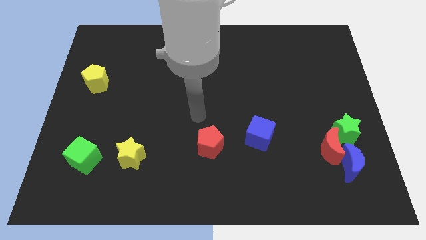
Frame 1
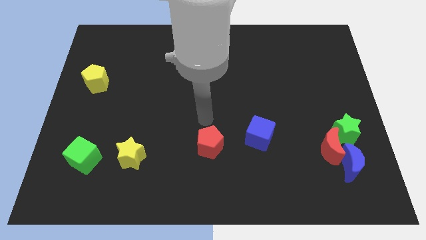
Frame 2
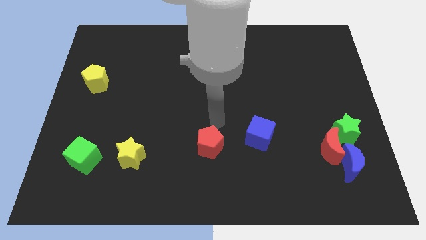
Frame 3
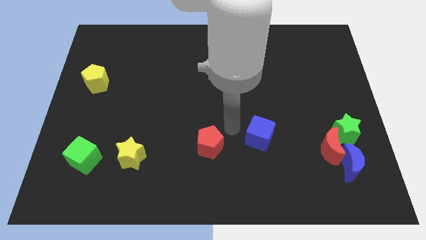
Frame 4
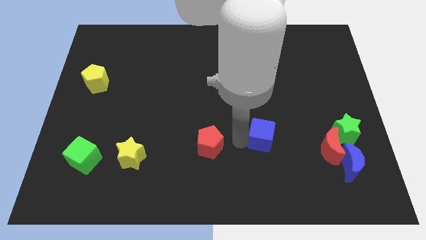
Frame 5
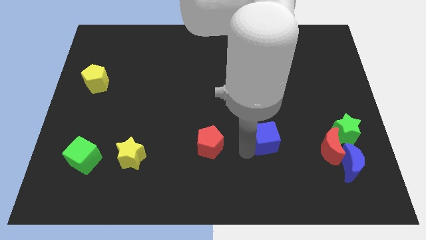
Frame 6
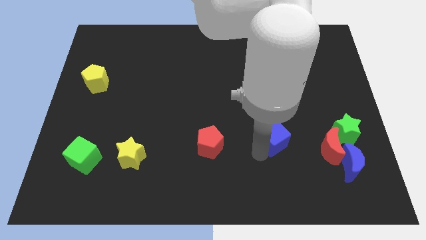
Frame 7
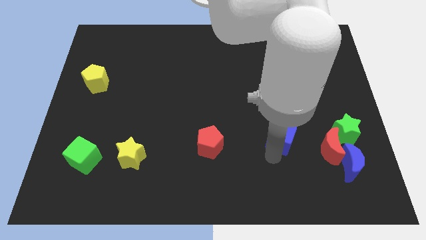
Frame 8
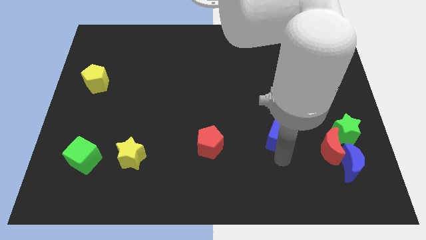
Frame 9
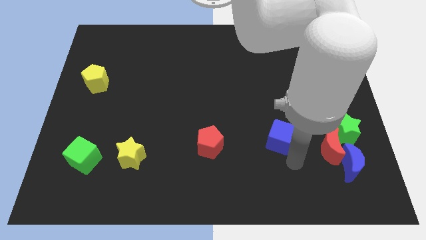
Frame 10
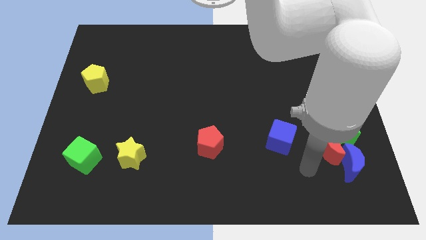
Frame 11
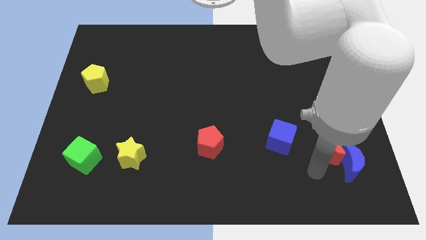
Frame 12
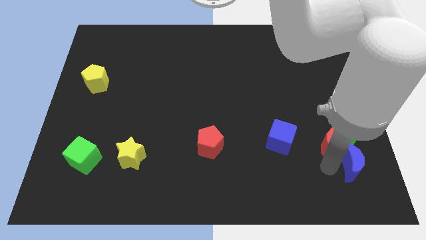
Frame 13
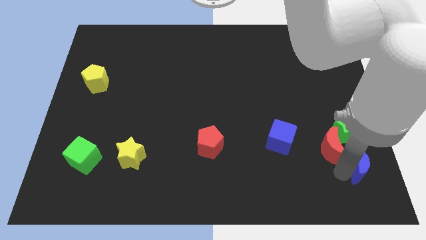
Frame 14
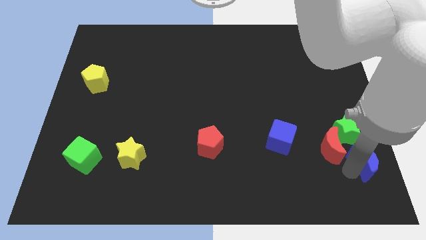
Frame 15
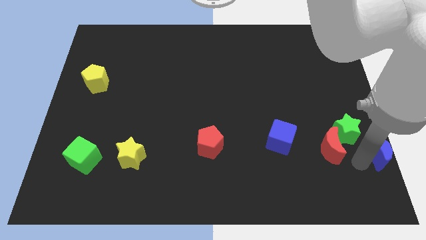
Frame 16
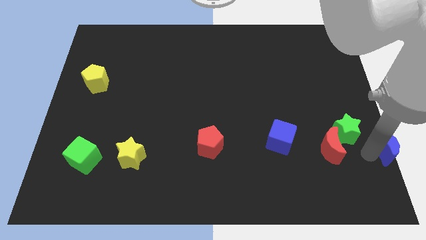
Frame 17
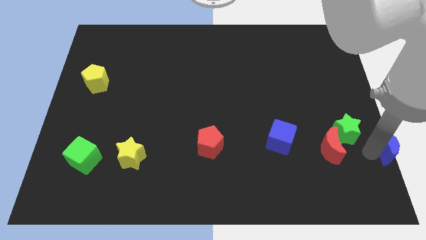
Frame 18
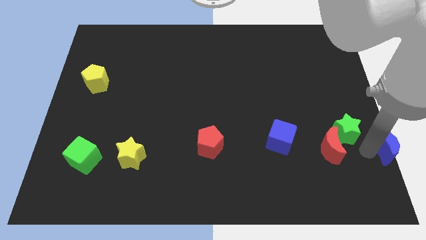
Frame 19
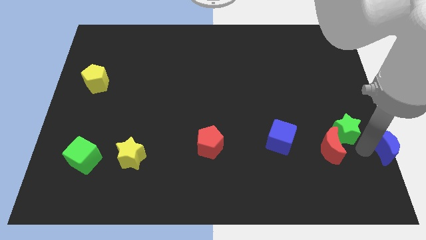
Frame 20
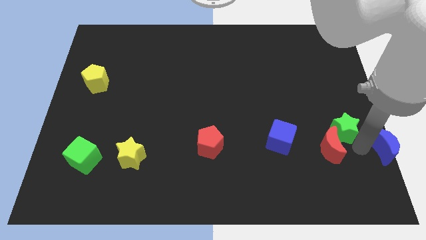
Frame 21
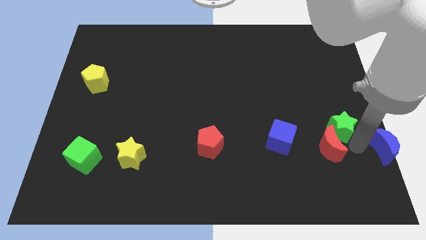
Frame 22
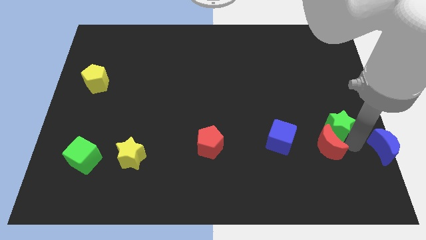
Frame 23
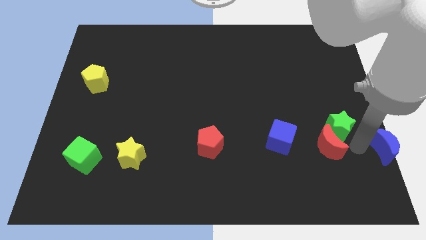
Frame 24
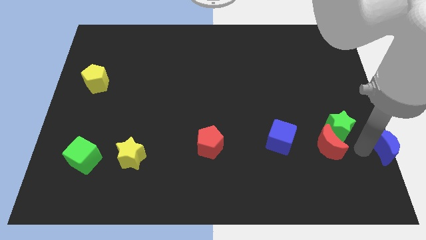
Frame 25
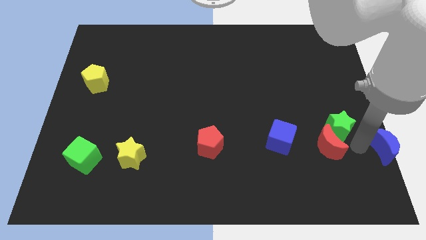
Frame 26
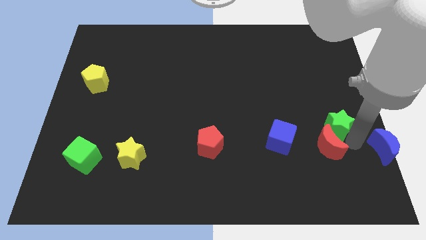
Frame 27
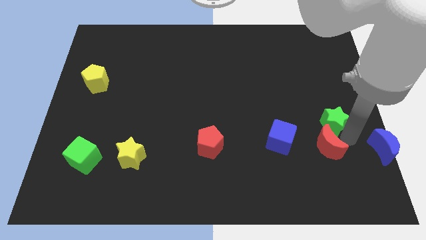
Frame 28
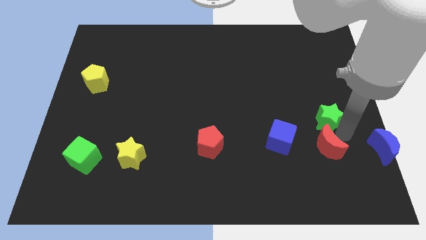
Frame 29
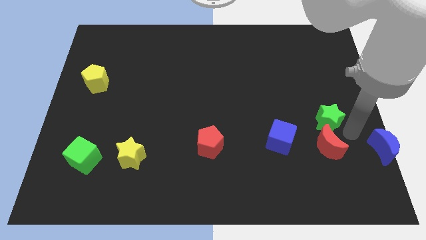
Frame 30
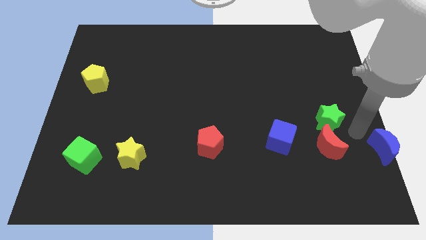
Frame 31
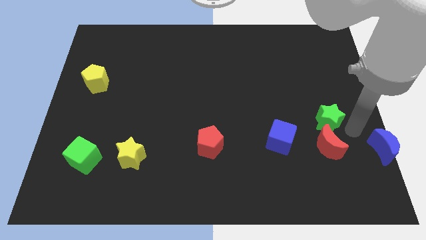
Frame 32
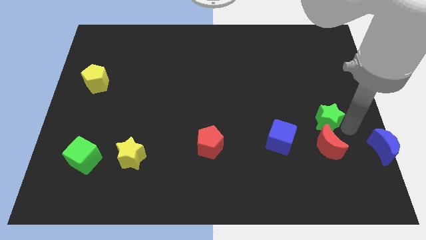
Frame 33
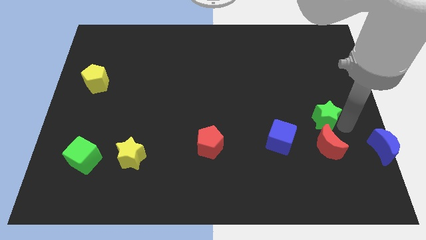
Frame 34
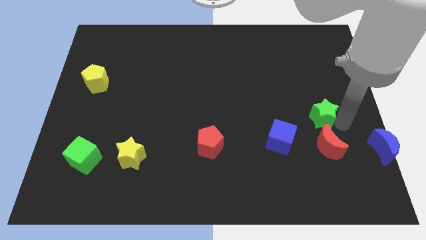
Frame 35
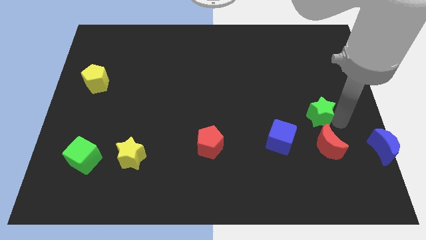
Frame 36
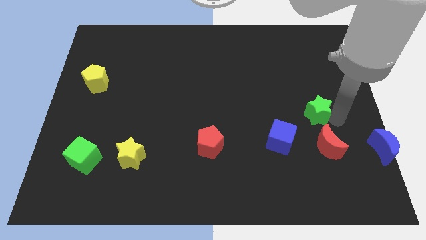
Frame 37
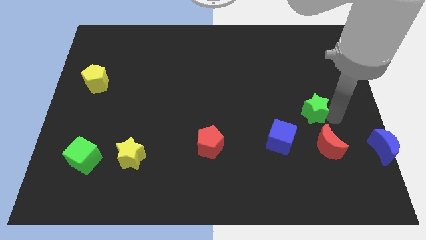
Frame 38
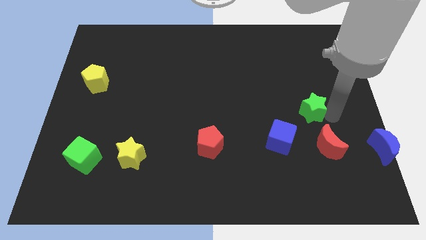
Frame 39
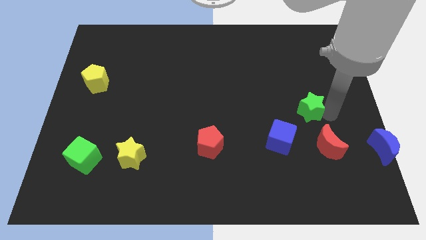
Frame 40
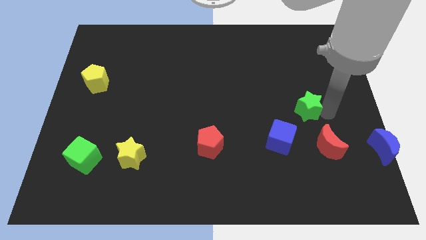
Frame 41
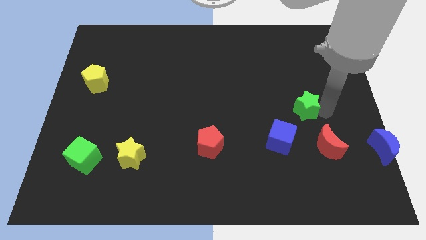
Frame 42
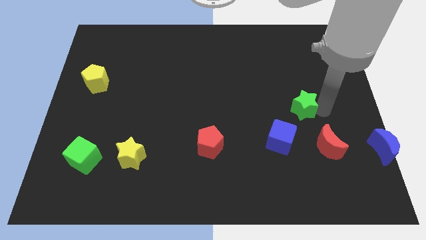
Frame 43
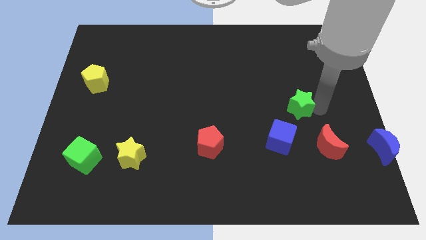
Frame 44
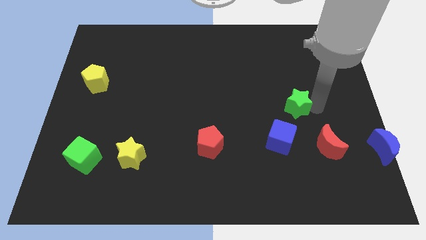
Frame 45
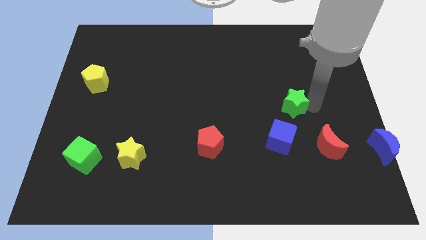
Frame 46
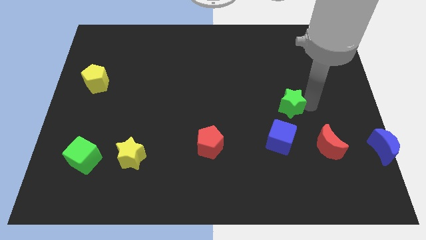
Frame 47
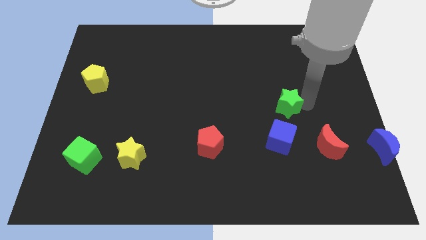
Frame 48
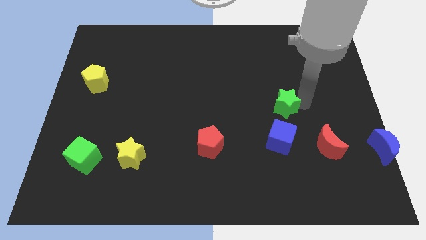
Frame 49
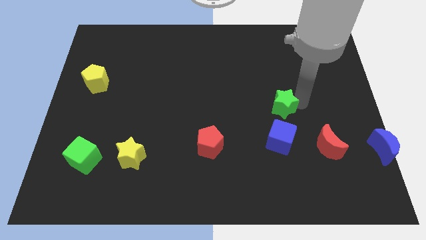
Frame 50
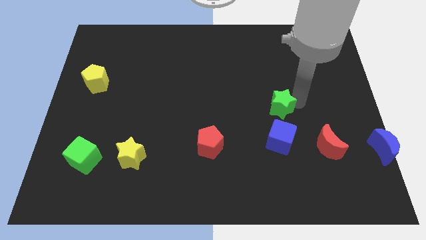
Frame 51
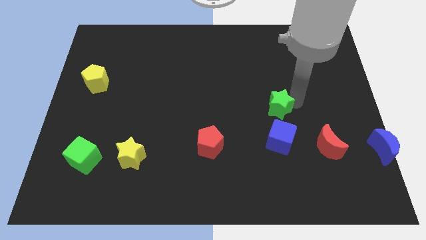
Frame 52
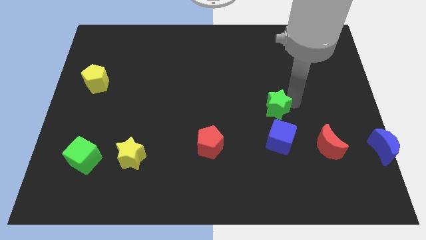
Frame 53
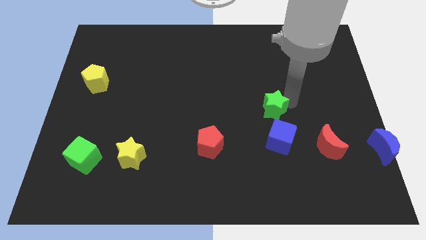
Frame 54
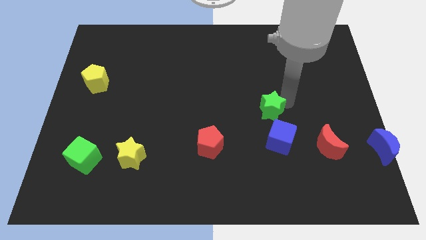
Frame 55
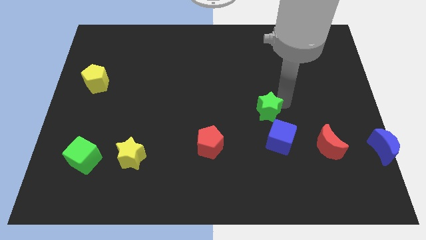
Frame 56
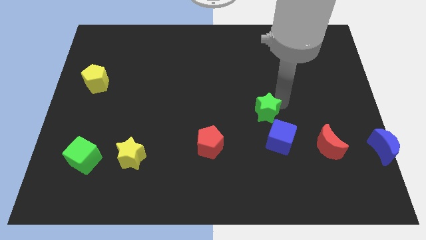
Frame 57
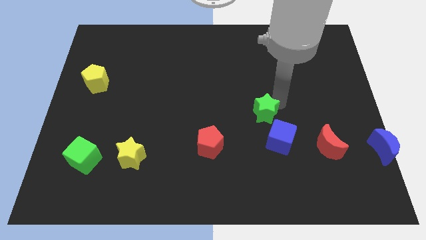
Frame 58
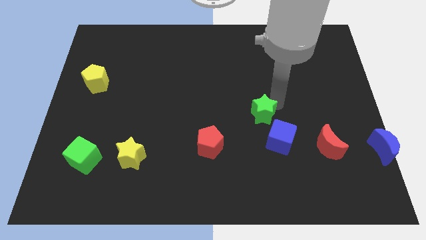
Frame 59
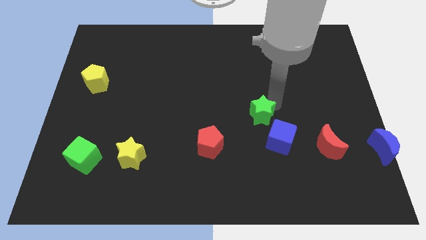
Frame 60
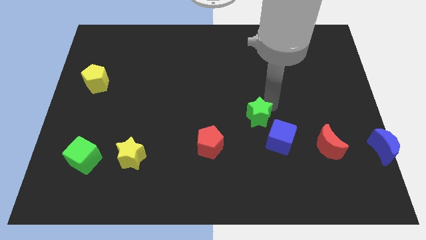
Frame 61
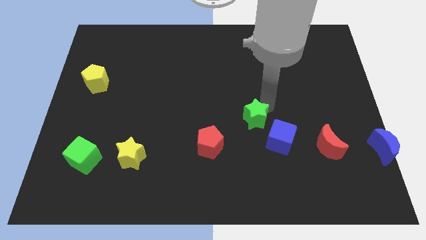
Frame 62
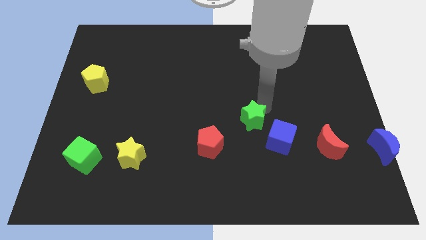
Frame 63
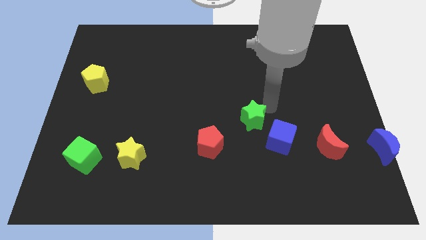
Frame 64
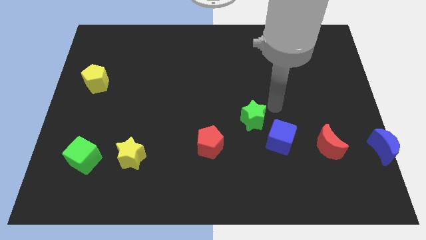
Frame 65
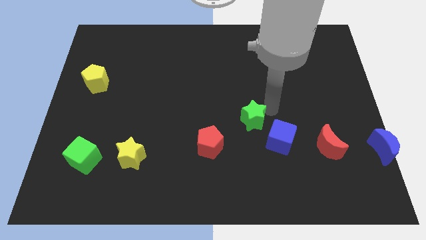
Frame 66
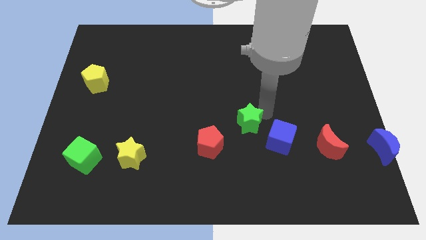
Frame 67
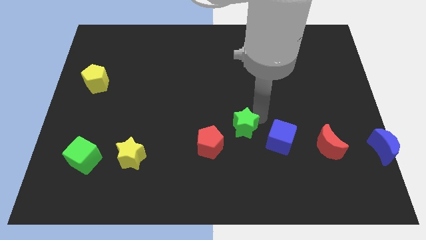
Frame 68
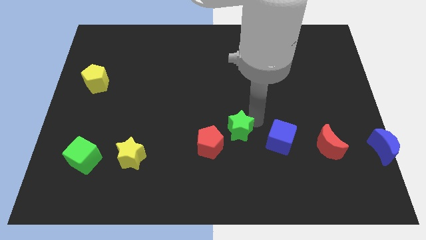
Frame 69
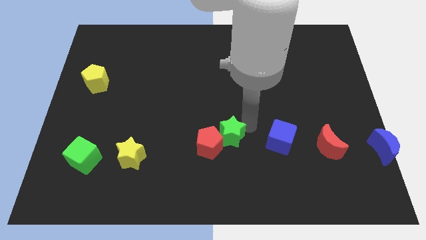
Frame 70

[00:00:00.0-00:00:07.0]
put the green star towards the red pentagon

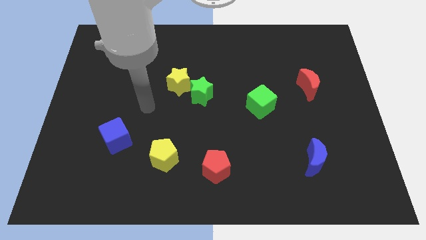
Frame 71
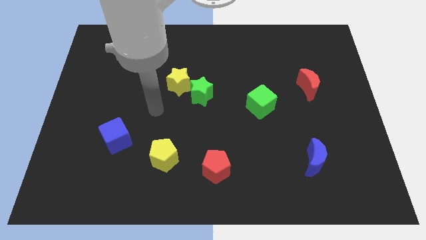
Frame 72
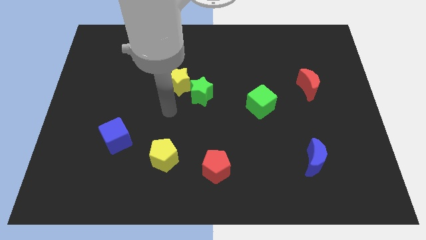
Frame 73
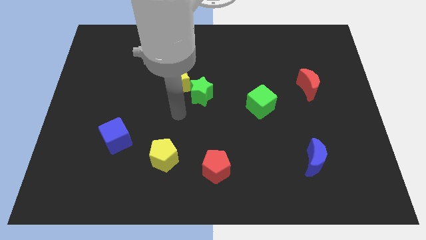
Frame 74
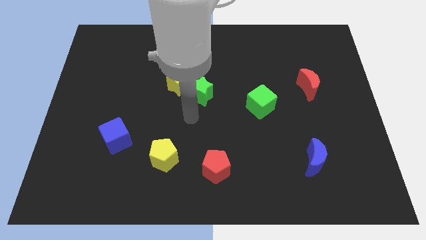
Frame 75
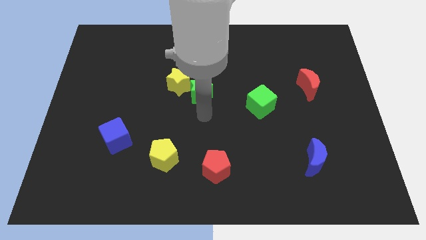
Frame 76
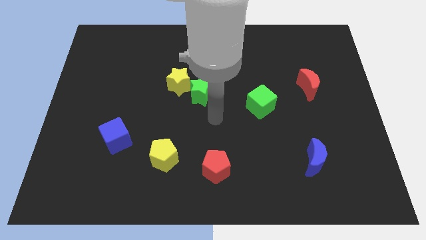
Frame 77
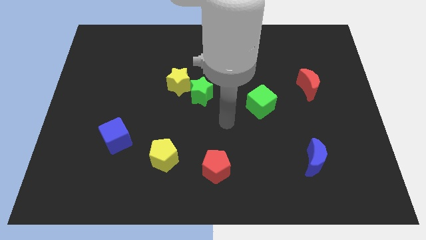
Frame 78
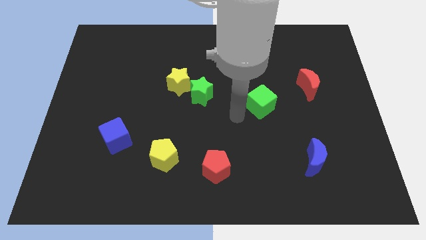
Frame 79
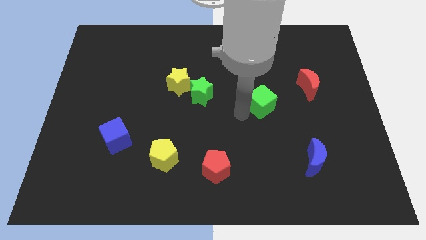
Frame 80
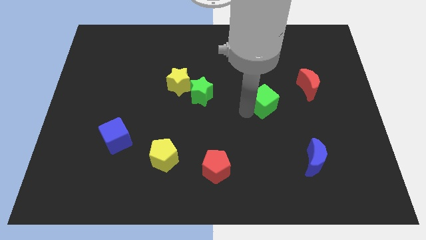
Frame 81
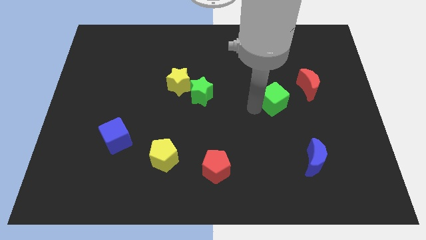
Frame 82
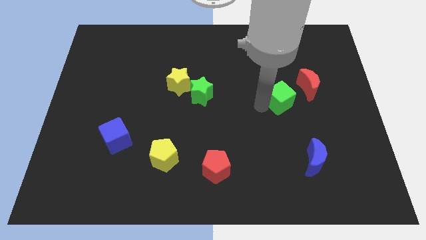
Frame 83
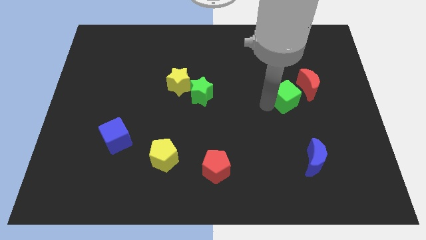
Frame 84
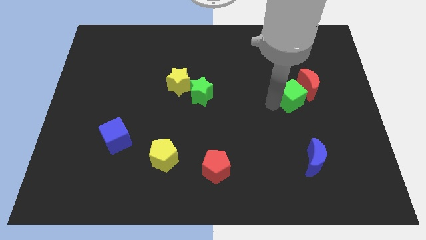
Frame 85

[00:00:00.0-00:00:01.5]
put the green cube towards the red moon
